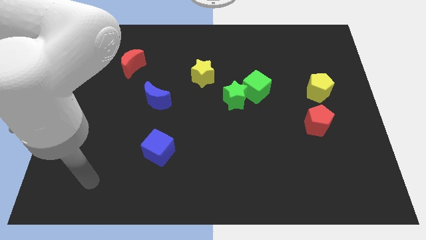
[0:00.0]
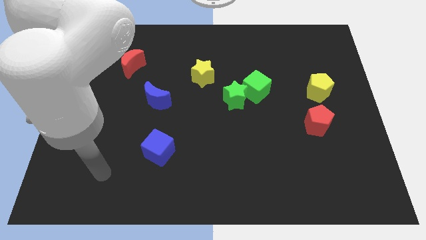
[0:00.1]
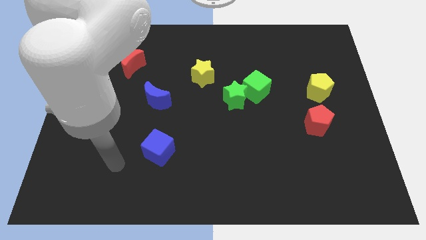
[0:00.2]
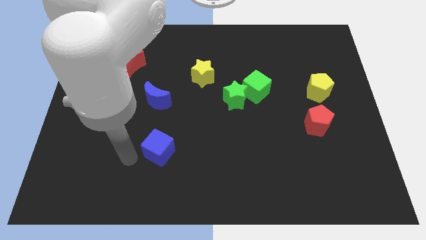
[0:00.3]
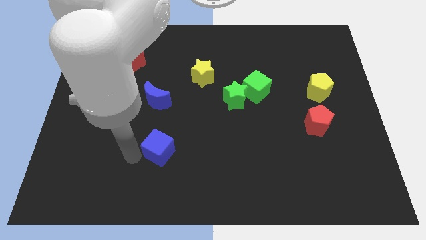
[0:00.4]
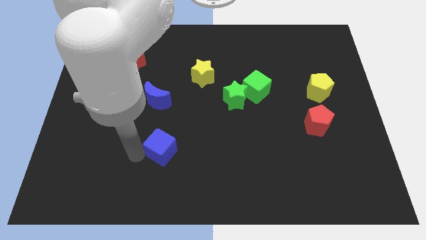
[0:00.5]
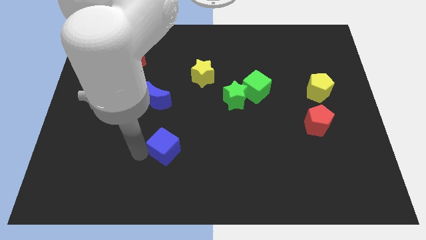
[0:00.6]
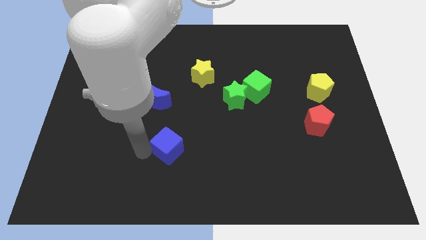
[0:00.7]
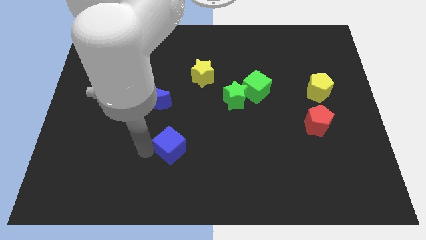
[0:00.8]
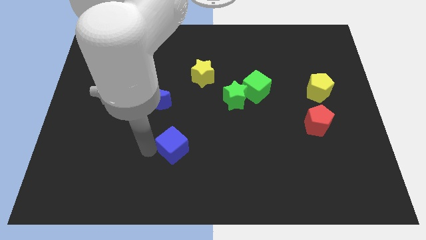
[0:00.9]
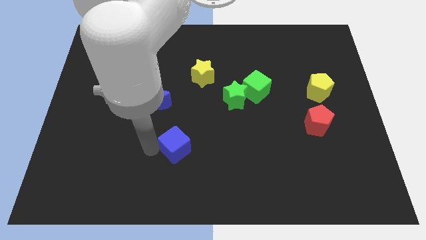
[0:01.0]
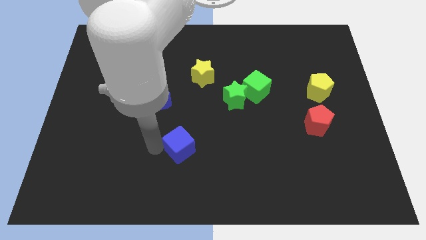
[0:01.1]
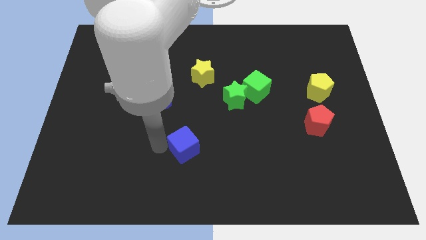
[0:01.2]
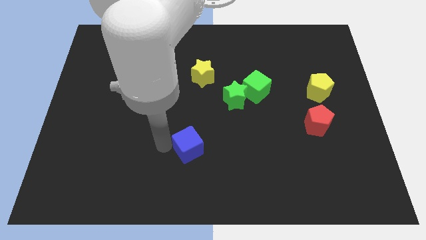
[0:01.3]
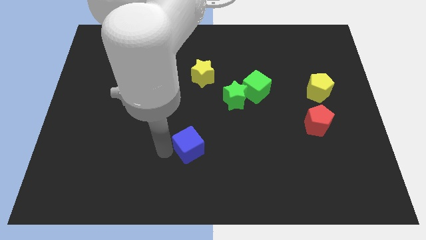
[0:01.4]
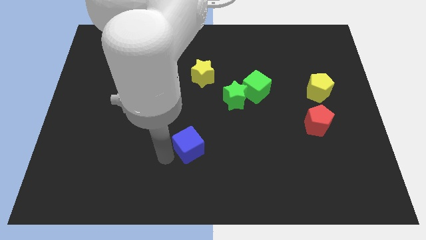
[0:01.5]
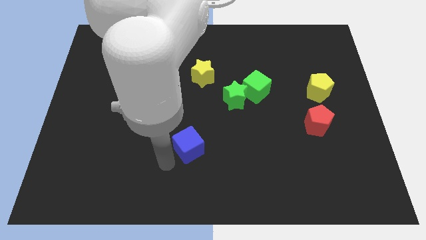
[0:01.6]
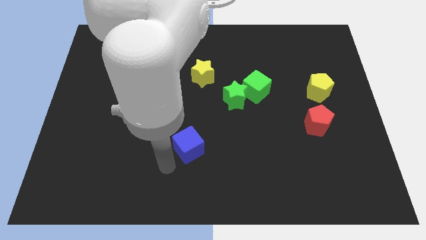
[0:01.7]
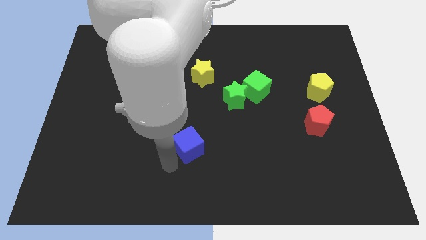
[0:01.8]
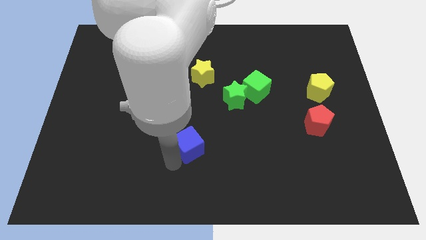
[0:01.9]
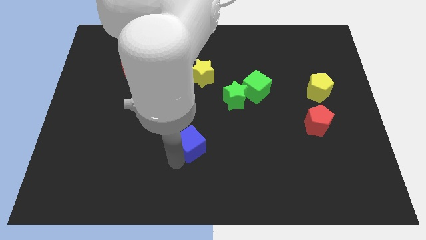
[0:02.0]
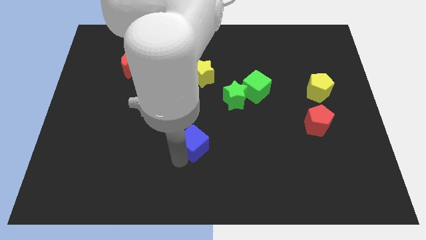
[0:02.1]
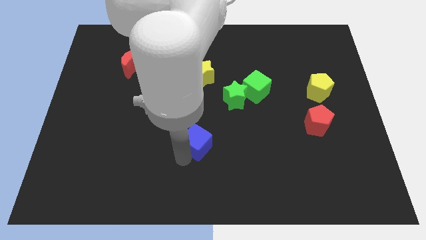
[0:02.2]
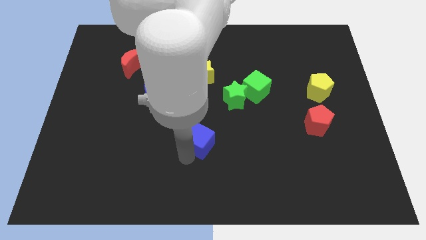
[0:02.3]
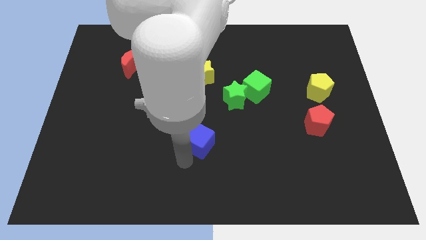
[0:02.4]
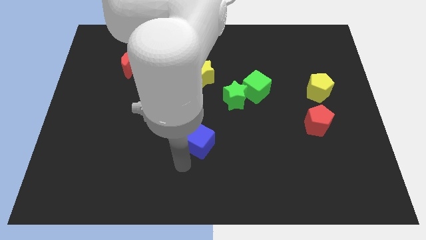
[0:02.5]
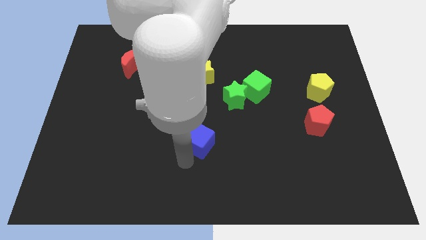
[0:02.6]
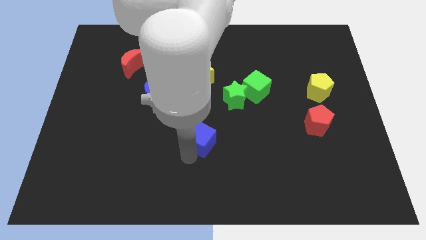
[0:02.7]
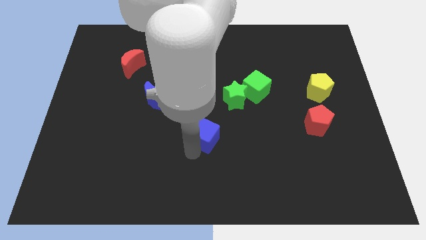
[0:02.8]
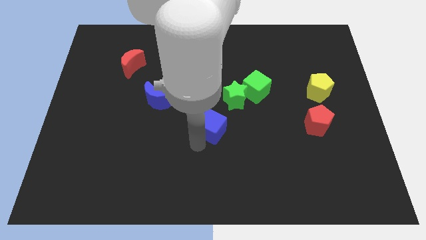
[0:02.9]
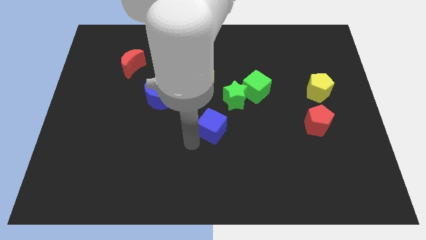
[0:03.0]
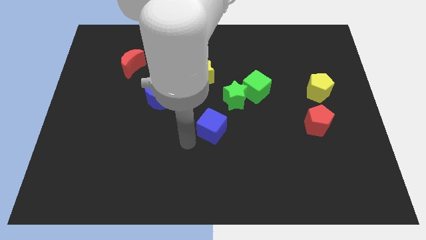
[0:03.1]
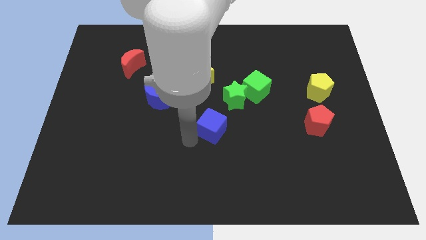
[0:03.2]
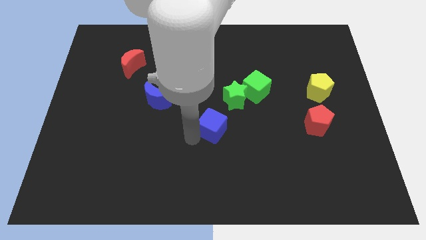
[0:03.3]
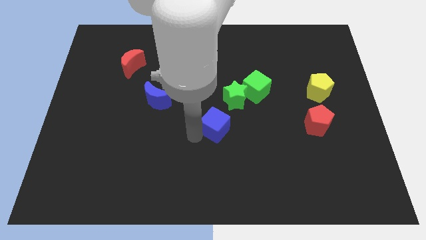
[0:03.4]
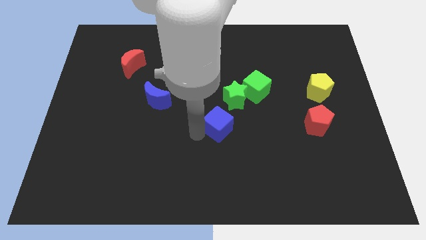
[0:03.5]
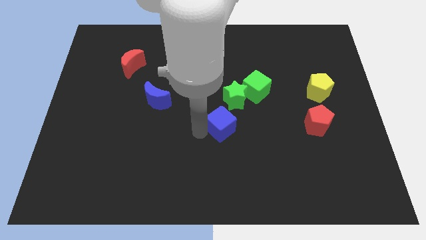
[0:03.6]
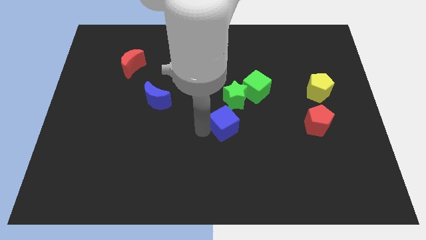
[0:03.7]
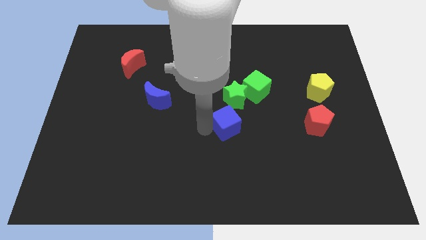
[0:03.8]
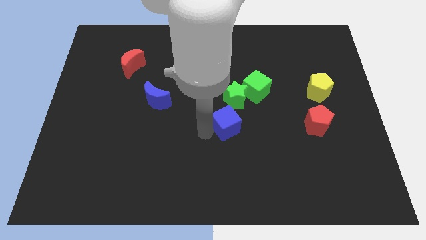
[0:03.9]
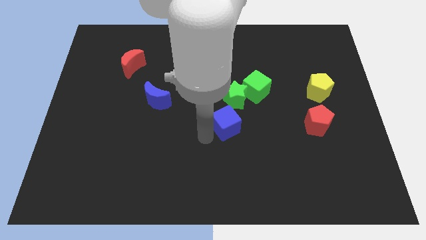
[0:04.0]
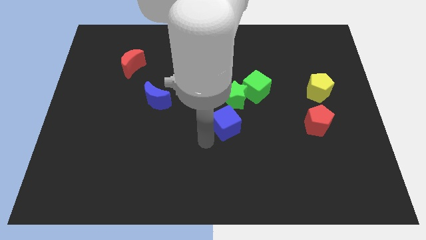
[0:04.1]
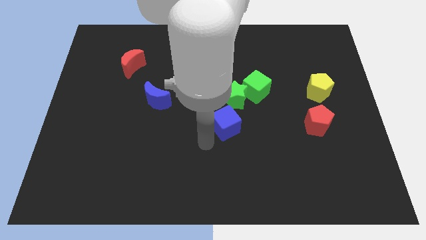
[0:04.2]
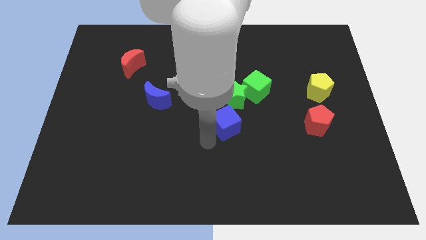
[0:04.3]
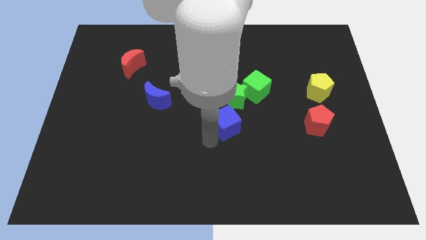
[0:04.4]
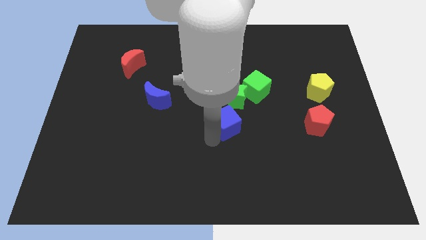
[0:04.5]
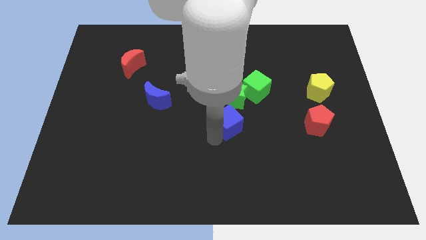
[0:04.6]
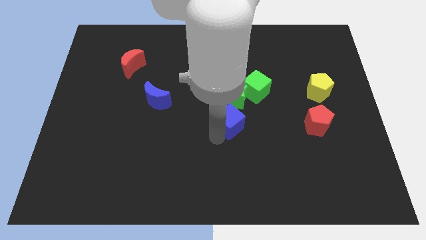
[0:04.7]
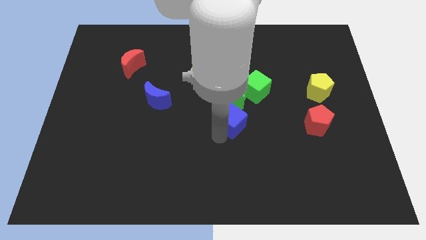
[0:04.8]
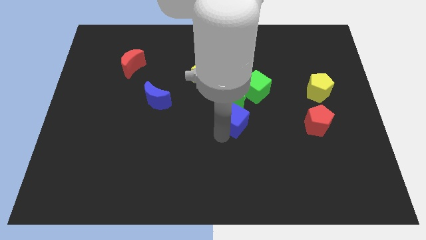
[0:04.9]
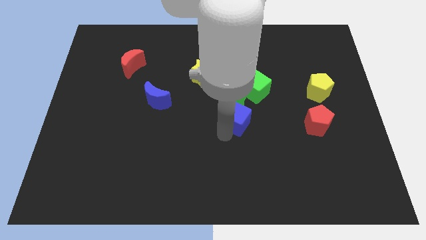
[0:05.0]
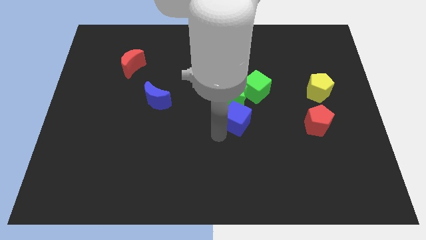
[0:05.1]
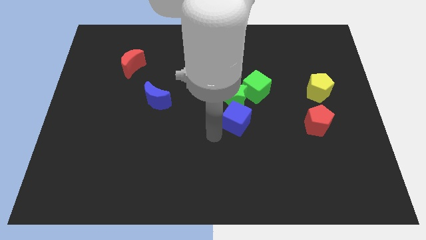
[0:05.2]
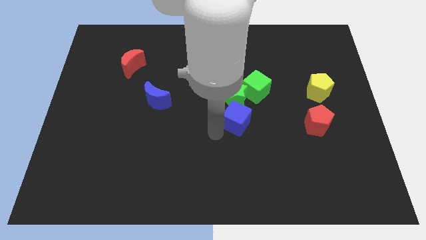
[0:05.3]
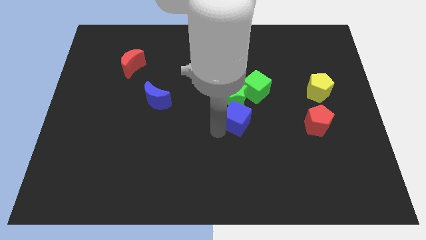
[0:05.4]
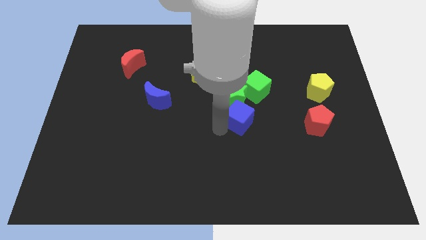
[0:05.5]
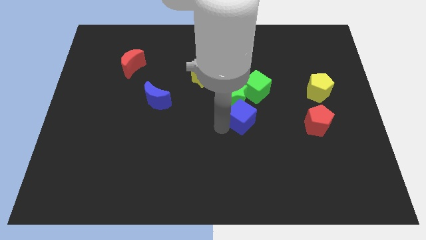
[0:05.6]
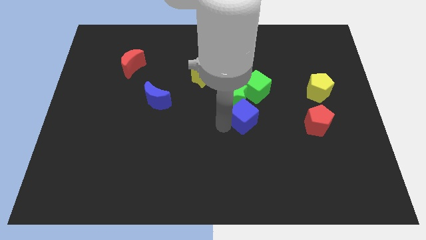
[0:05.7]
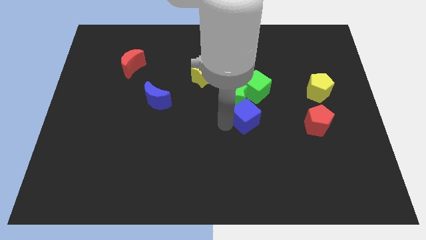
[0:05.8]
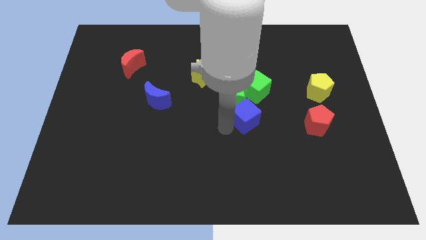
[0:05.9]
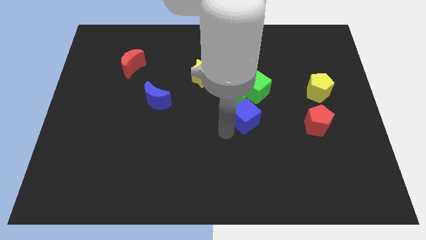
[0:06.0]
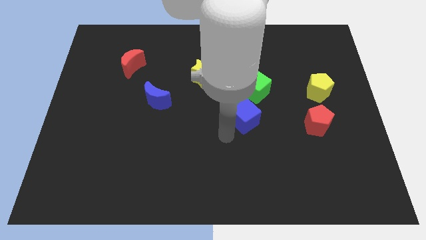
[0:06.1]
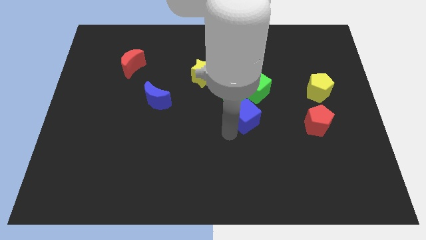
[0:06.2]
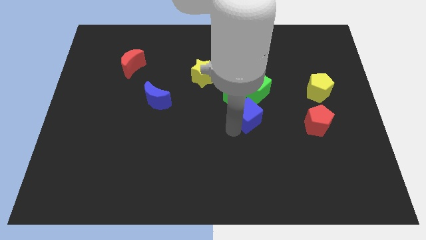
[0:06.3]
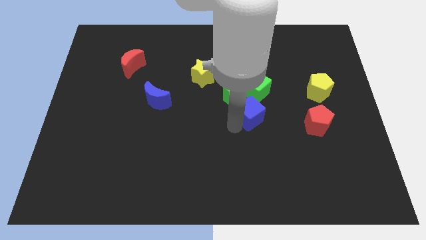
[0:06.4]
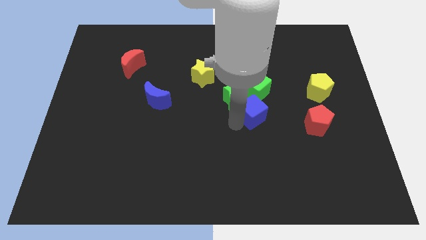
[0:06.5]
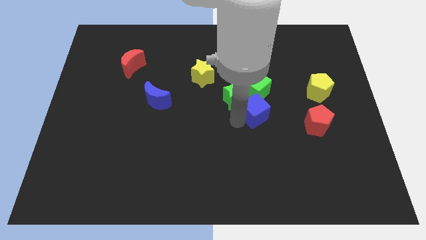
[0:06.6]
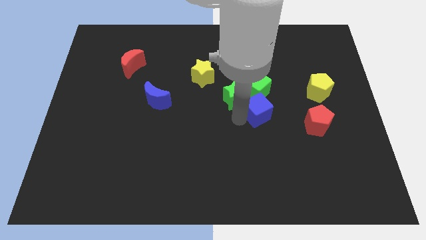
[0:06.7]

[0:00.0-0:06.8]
push the blue cube upwards and then to the right

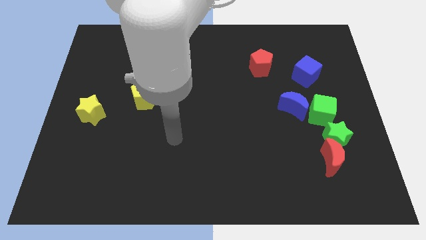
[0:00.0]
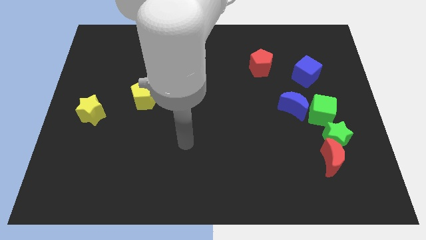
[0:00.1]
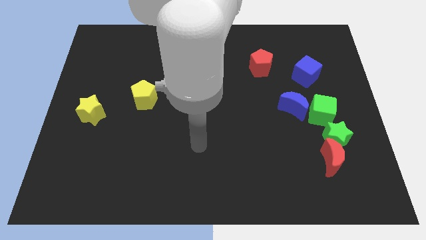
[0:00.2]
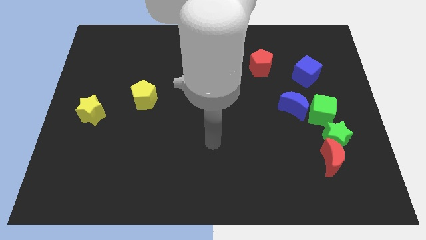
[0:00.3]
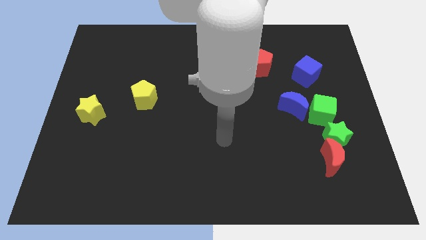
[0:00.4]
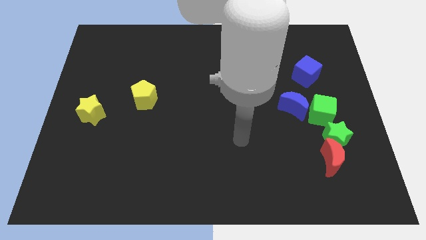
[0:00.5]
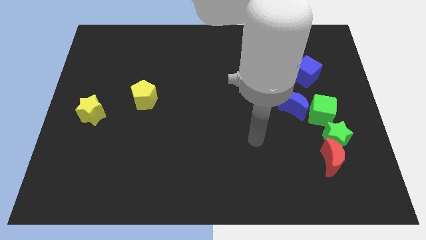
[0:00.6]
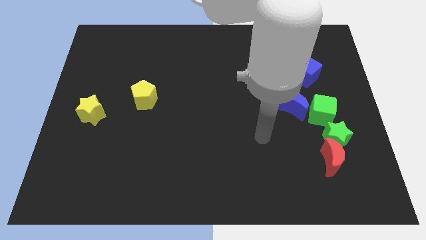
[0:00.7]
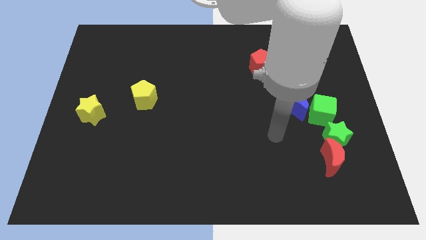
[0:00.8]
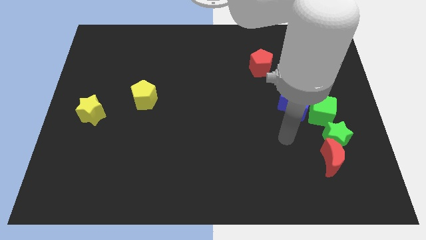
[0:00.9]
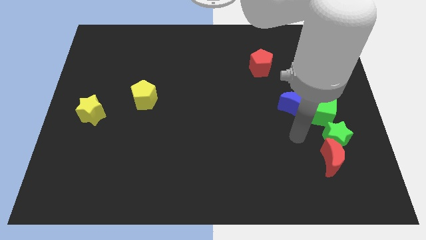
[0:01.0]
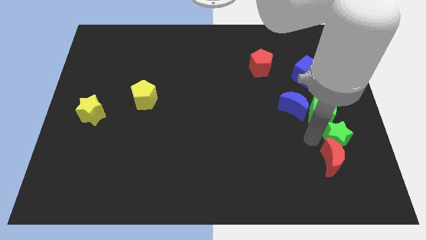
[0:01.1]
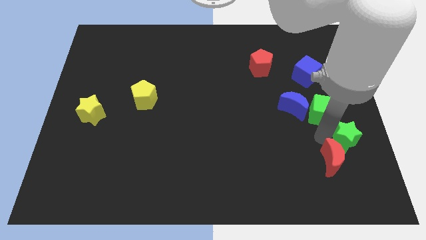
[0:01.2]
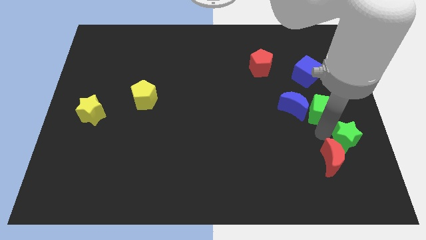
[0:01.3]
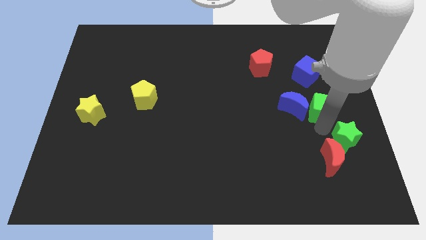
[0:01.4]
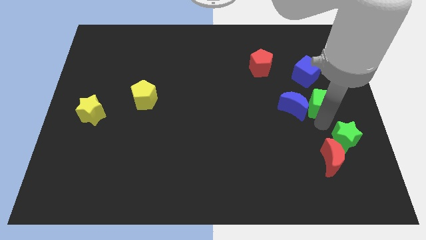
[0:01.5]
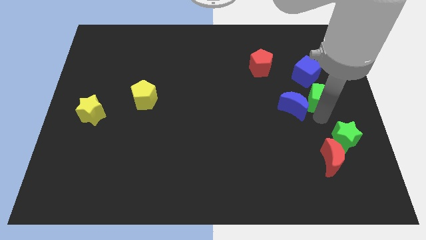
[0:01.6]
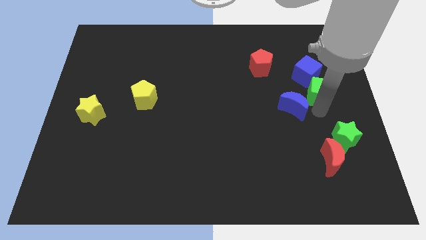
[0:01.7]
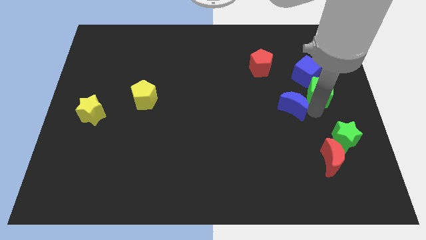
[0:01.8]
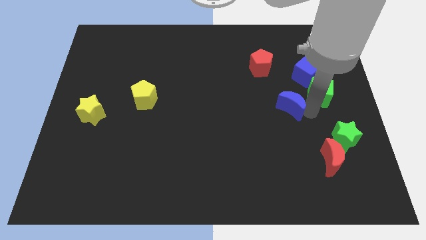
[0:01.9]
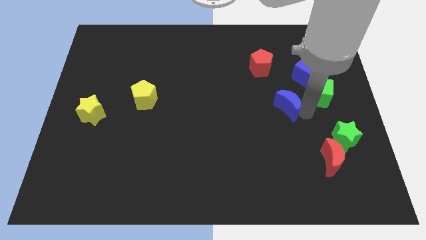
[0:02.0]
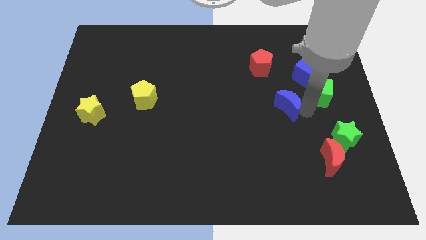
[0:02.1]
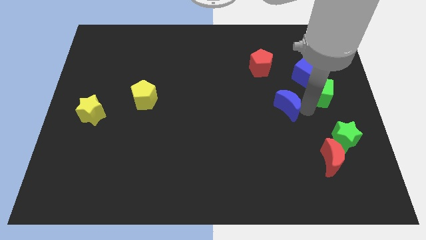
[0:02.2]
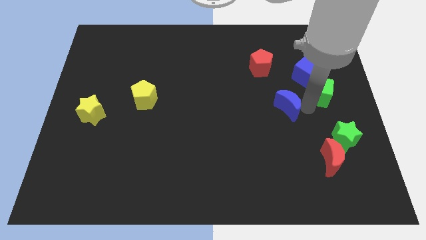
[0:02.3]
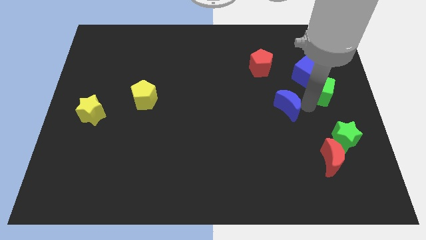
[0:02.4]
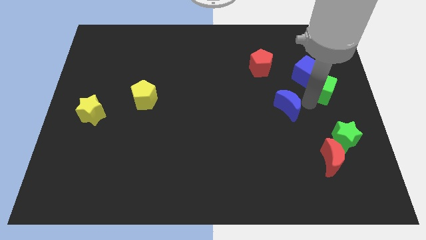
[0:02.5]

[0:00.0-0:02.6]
move the green cube slightly upwards
